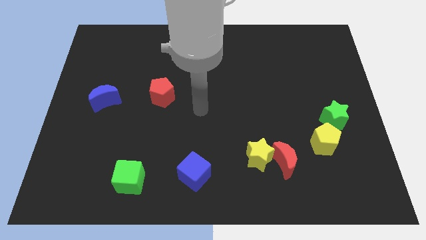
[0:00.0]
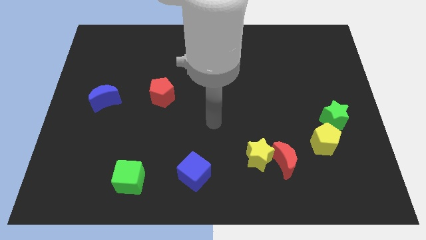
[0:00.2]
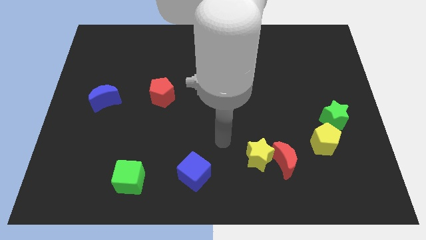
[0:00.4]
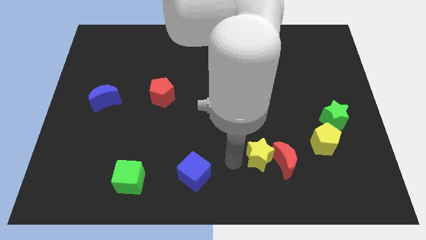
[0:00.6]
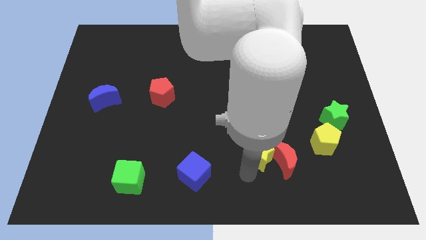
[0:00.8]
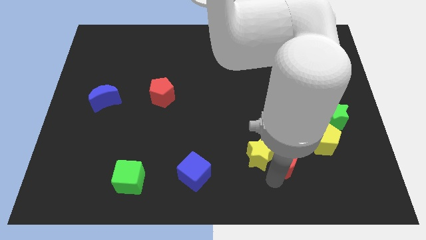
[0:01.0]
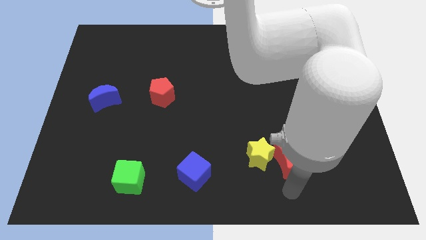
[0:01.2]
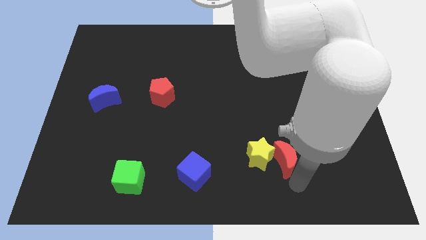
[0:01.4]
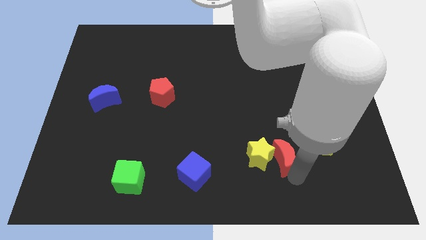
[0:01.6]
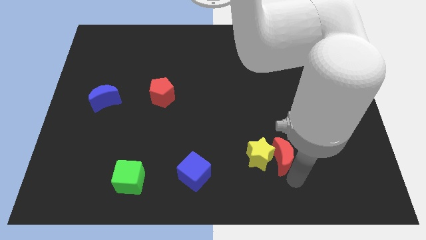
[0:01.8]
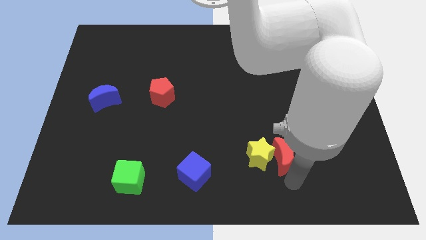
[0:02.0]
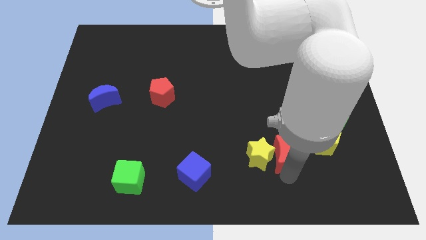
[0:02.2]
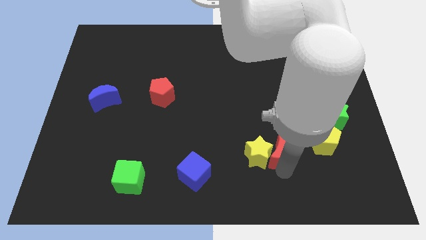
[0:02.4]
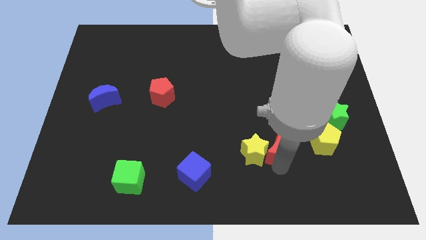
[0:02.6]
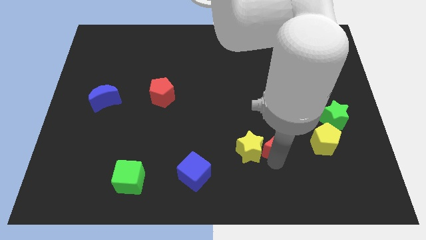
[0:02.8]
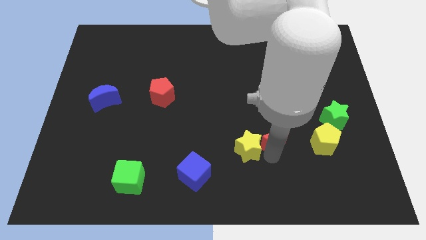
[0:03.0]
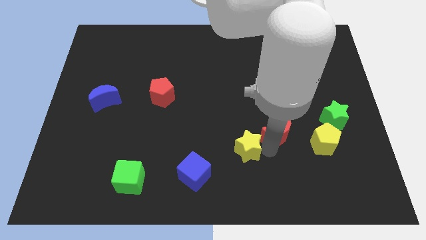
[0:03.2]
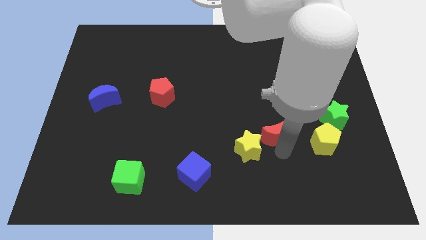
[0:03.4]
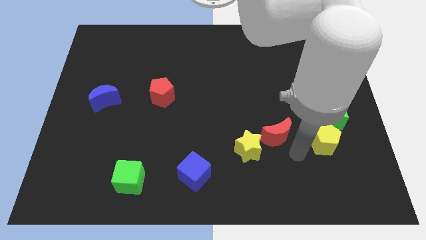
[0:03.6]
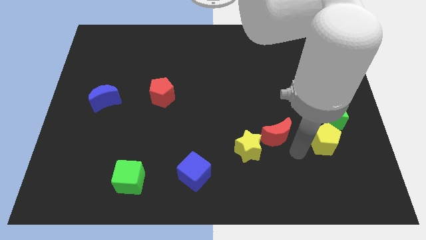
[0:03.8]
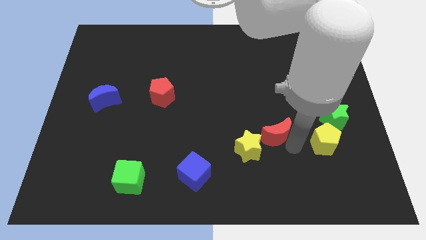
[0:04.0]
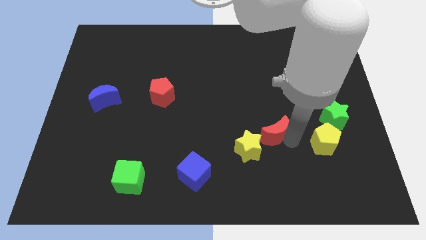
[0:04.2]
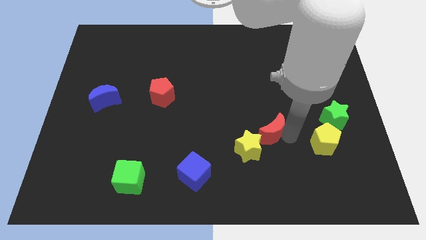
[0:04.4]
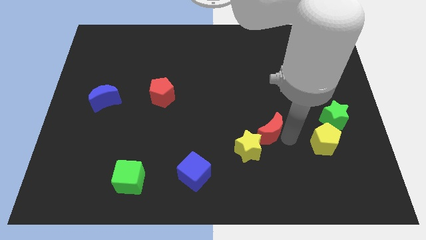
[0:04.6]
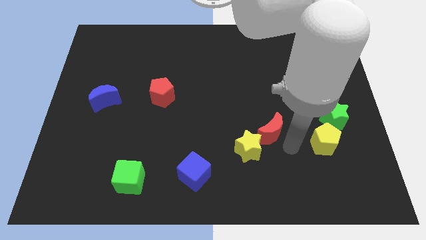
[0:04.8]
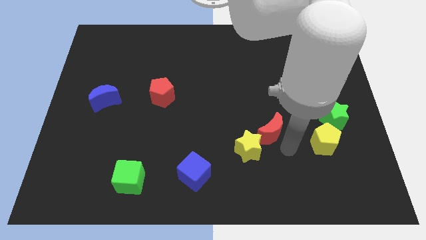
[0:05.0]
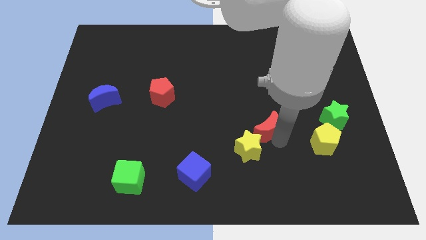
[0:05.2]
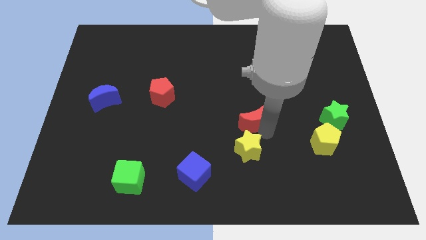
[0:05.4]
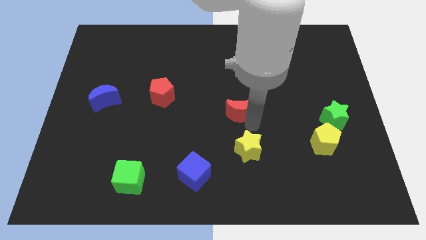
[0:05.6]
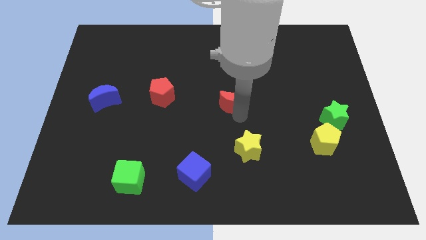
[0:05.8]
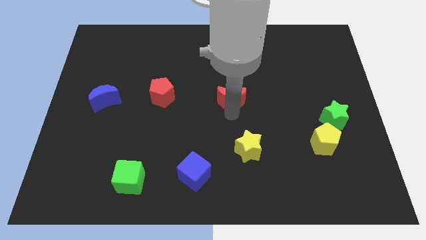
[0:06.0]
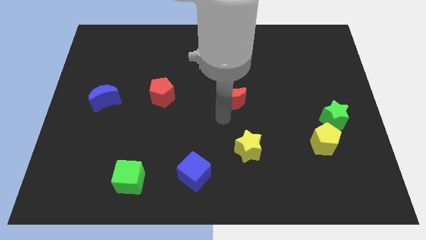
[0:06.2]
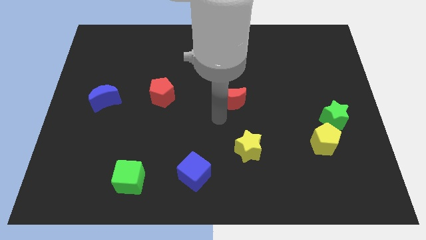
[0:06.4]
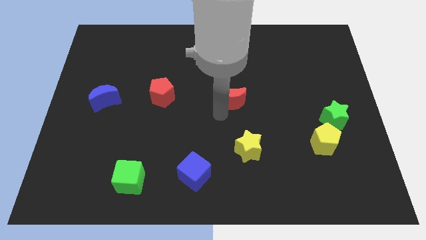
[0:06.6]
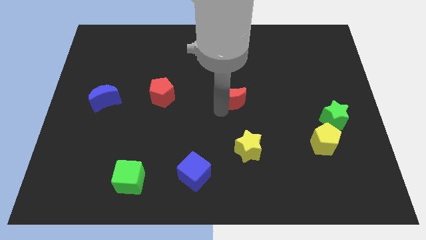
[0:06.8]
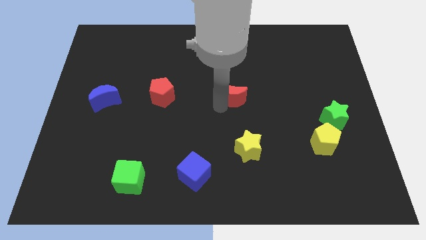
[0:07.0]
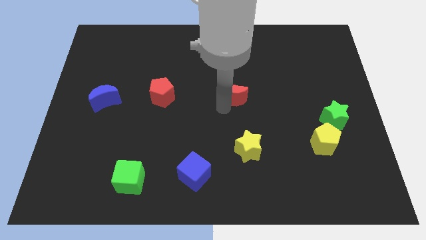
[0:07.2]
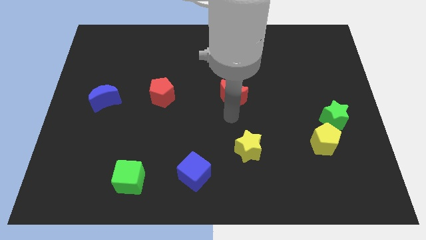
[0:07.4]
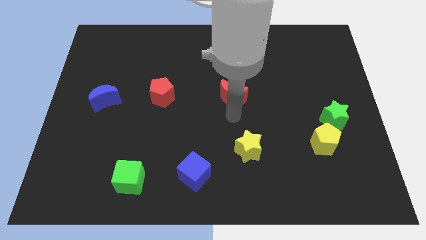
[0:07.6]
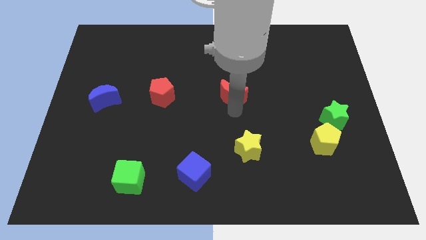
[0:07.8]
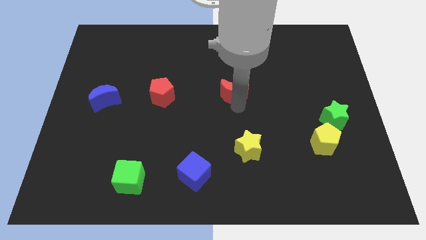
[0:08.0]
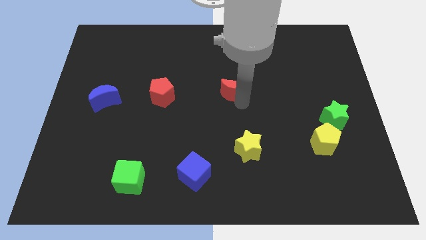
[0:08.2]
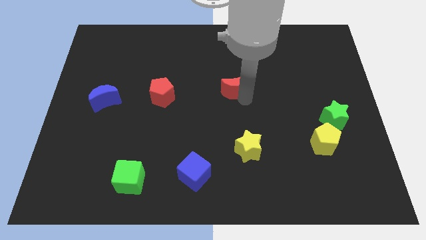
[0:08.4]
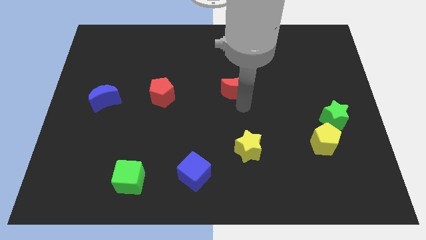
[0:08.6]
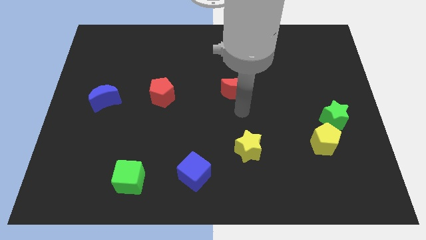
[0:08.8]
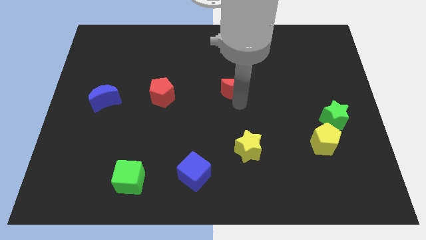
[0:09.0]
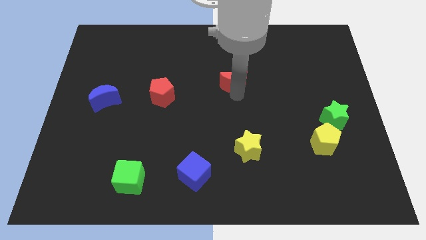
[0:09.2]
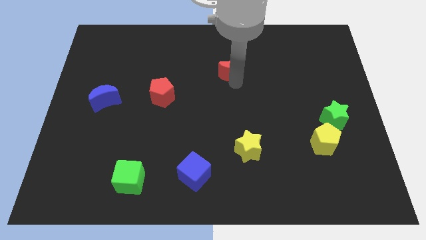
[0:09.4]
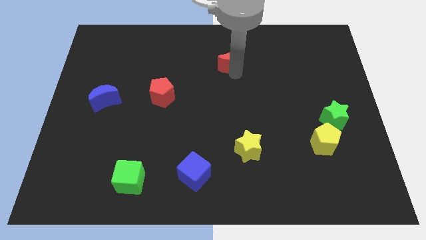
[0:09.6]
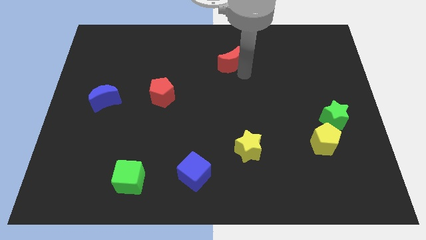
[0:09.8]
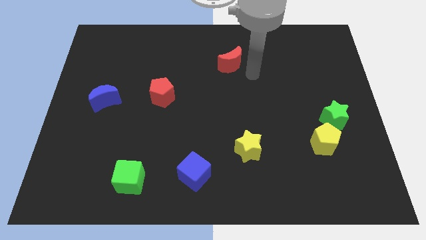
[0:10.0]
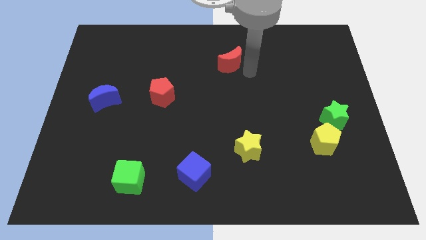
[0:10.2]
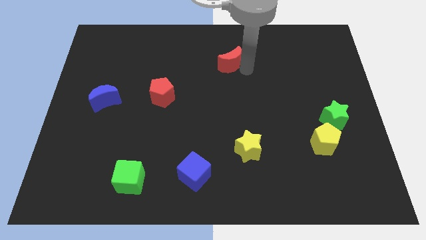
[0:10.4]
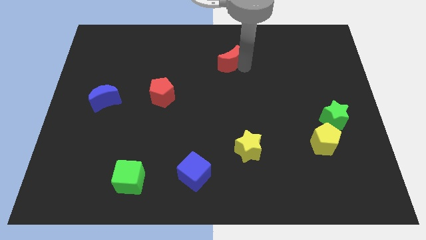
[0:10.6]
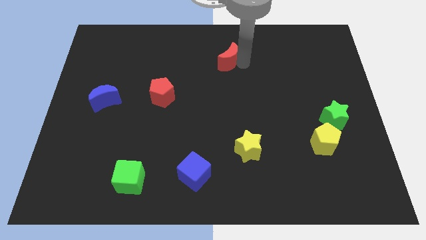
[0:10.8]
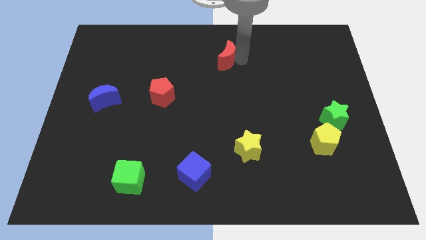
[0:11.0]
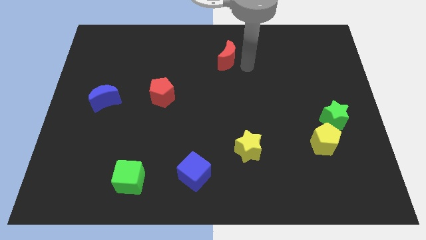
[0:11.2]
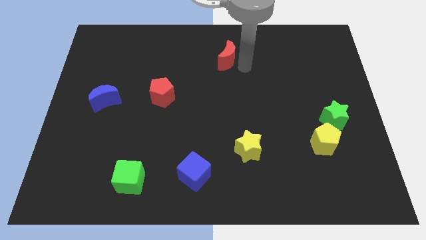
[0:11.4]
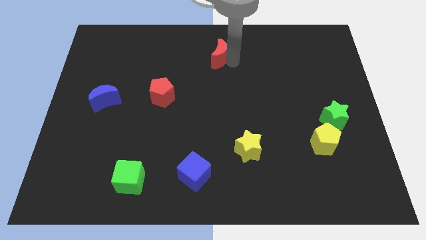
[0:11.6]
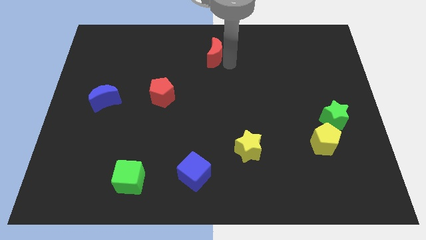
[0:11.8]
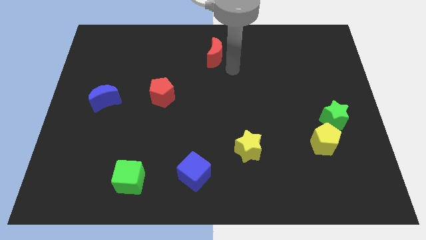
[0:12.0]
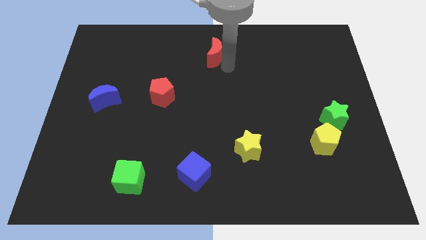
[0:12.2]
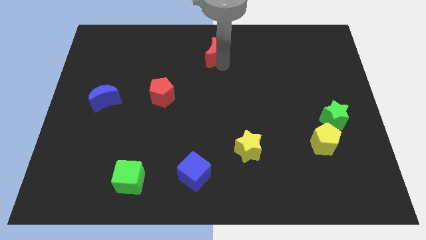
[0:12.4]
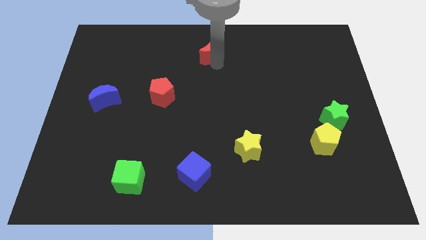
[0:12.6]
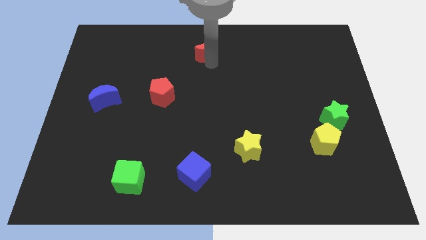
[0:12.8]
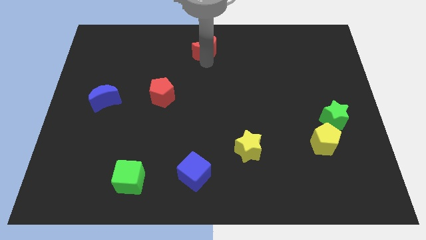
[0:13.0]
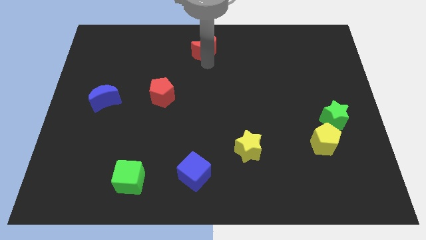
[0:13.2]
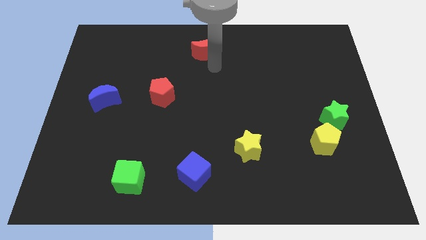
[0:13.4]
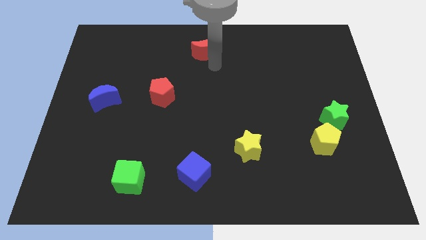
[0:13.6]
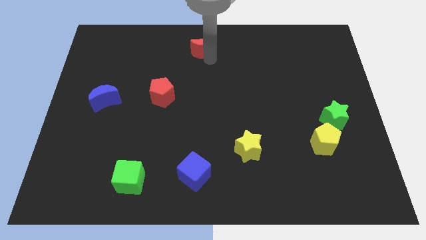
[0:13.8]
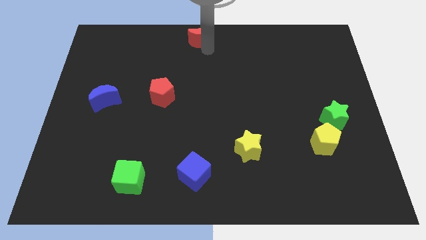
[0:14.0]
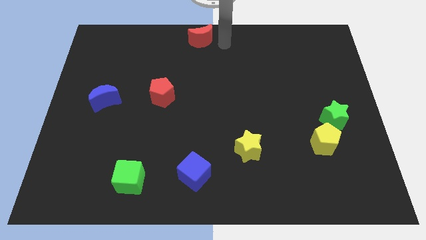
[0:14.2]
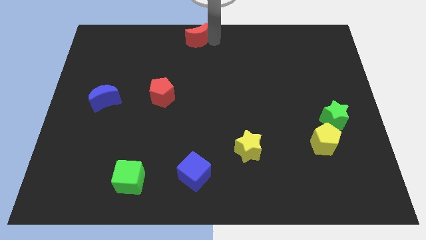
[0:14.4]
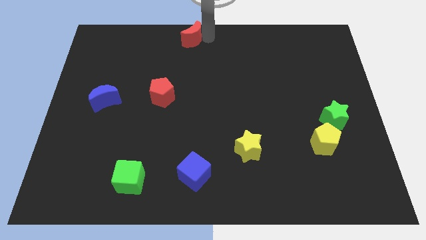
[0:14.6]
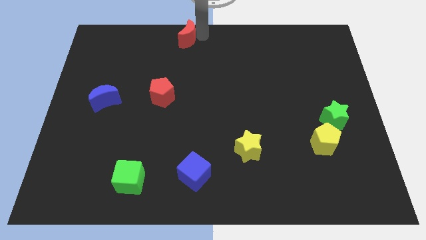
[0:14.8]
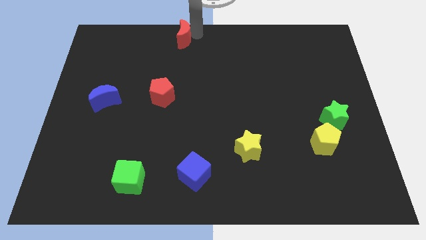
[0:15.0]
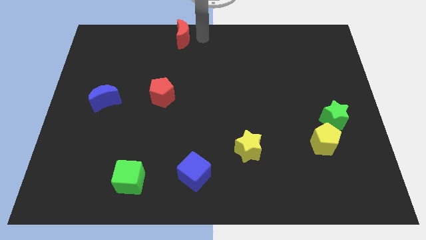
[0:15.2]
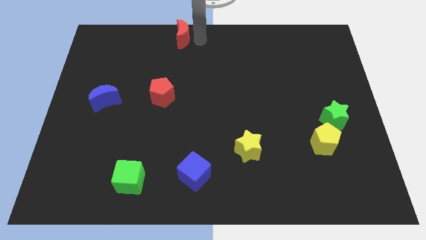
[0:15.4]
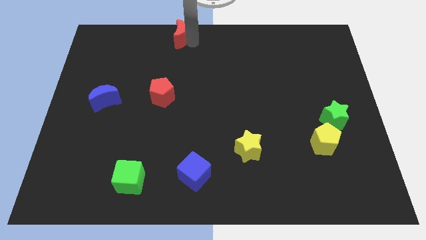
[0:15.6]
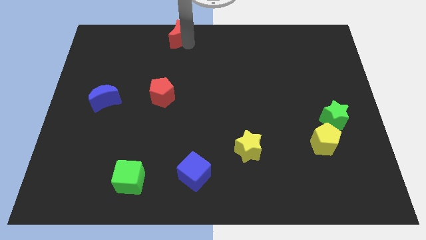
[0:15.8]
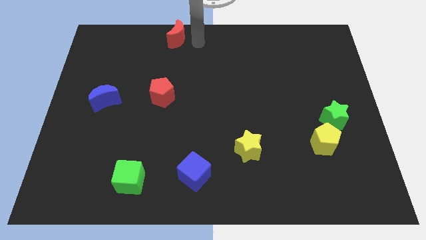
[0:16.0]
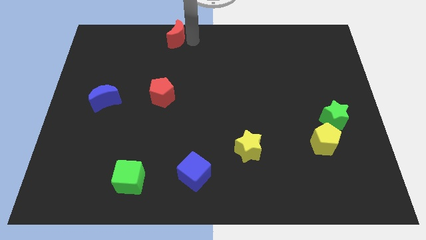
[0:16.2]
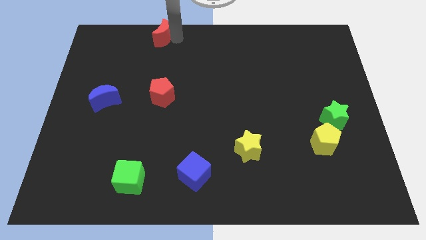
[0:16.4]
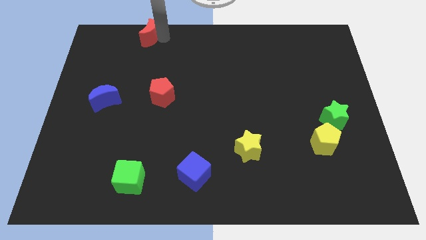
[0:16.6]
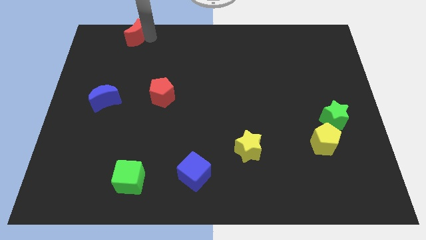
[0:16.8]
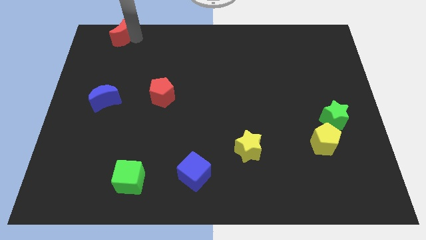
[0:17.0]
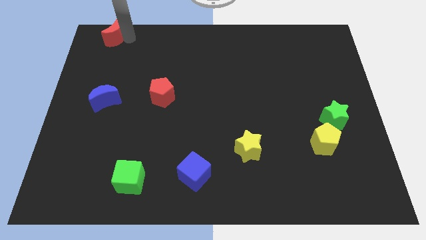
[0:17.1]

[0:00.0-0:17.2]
put the red moon to the top left corner
